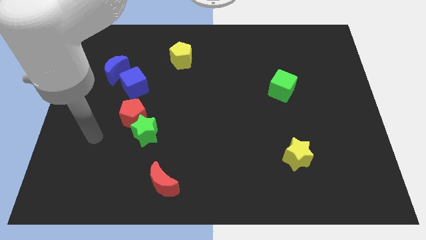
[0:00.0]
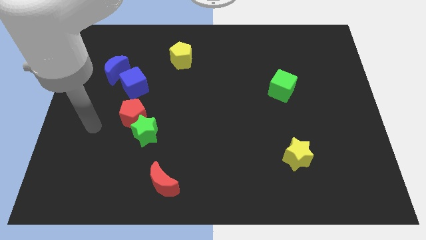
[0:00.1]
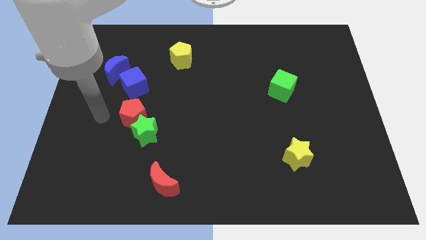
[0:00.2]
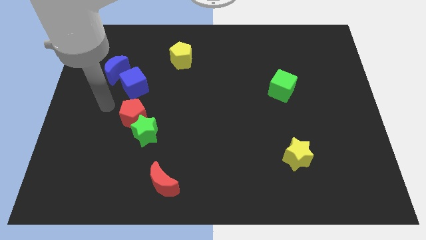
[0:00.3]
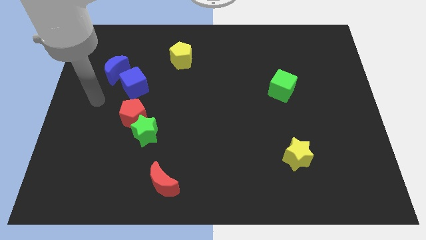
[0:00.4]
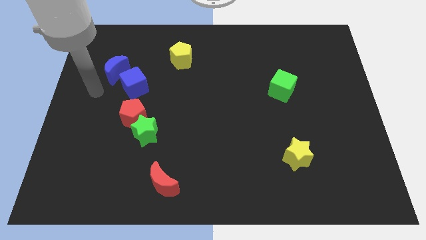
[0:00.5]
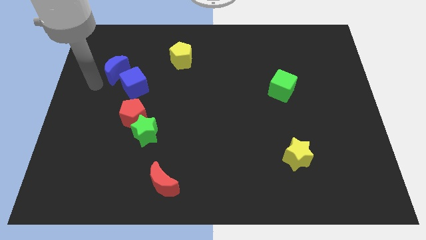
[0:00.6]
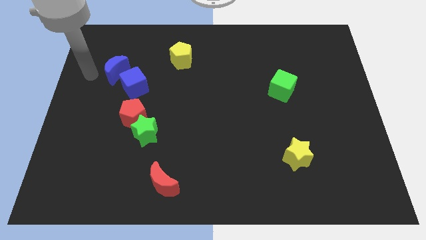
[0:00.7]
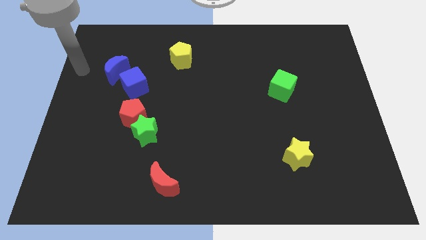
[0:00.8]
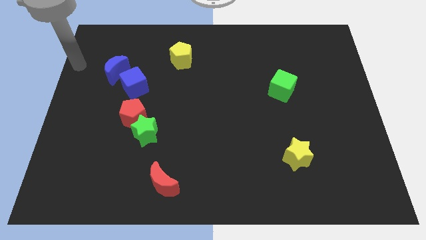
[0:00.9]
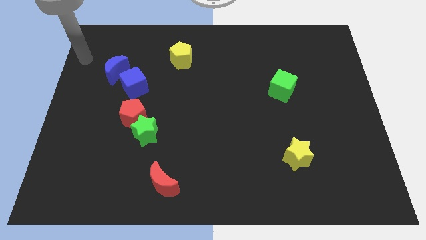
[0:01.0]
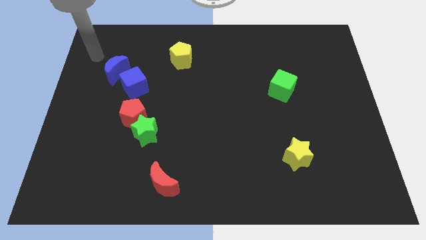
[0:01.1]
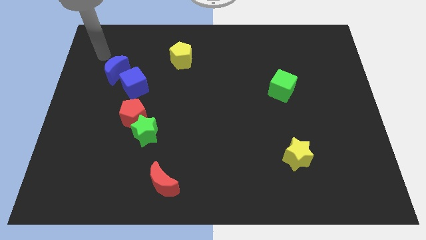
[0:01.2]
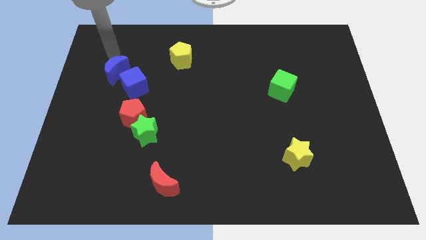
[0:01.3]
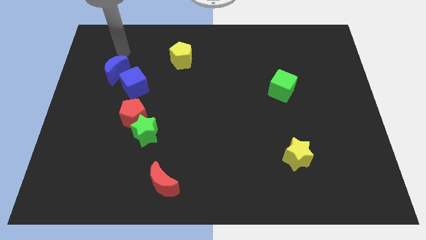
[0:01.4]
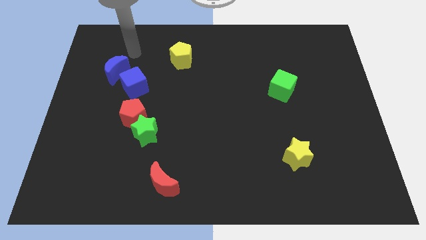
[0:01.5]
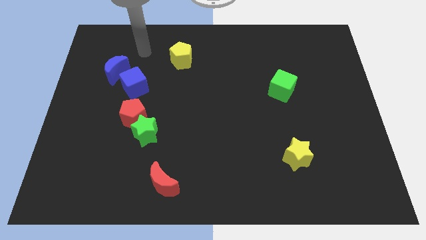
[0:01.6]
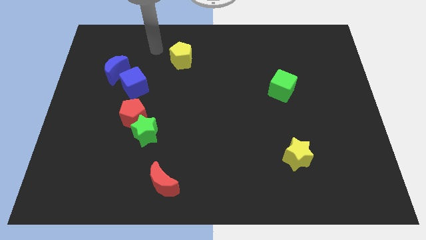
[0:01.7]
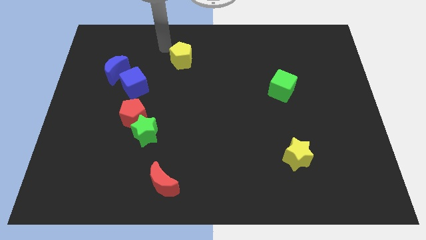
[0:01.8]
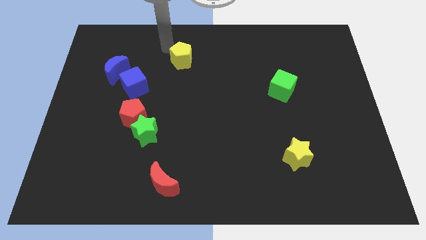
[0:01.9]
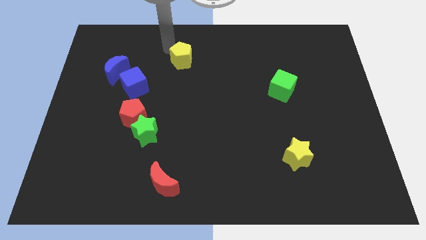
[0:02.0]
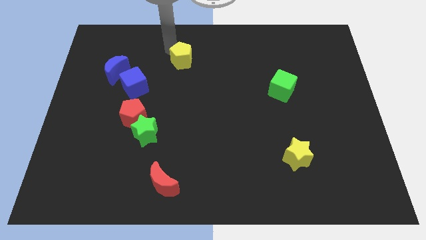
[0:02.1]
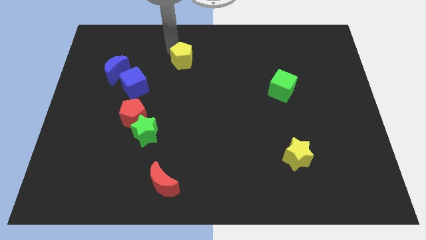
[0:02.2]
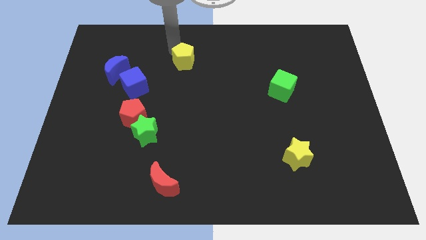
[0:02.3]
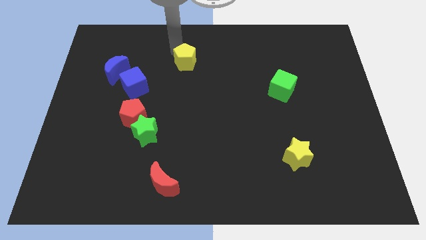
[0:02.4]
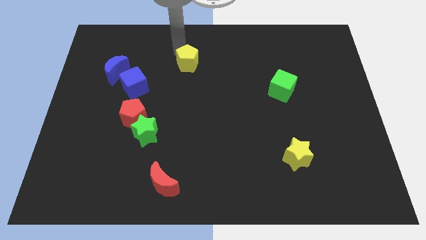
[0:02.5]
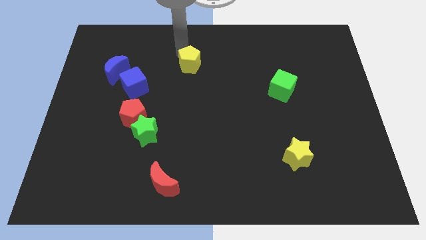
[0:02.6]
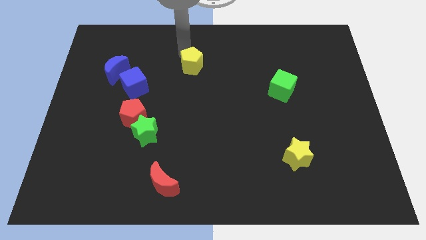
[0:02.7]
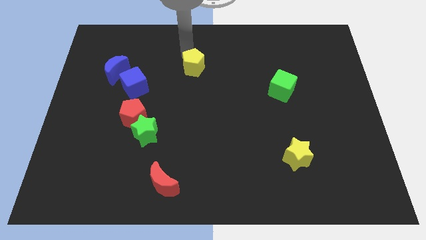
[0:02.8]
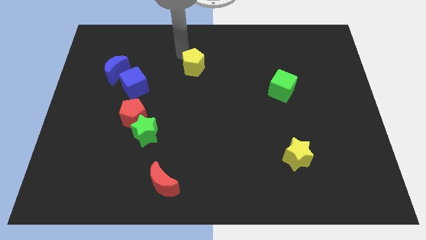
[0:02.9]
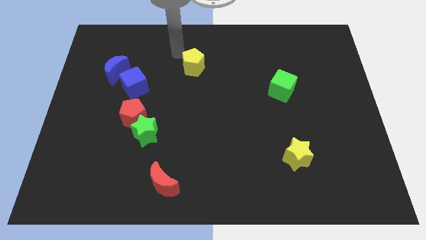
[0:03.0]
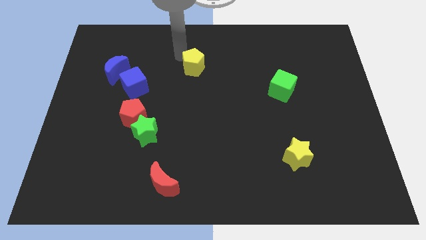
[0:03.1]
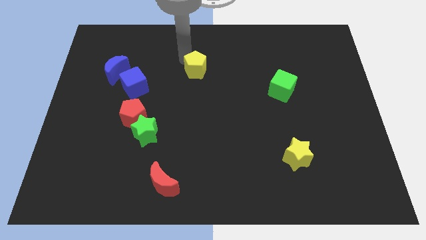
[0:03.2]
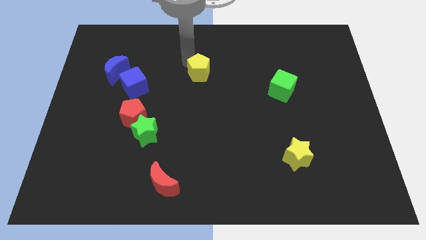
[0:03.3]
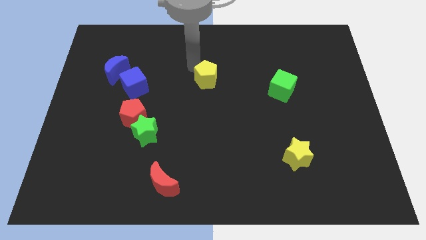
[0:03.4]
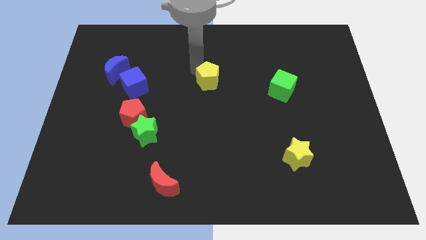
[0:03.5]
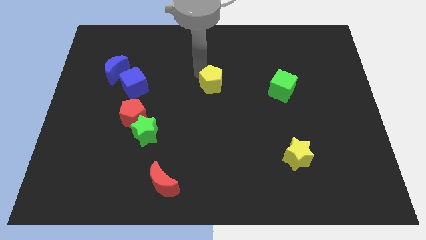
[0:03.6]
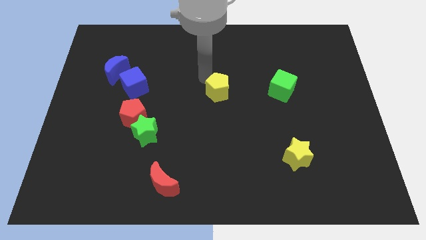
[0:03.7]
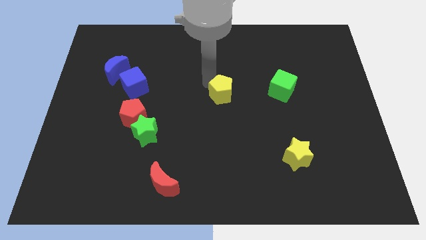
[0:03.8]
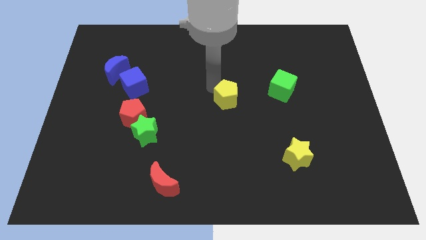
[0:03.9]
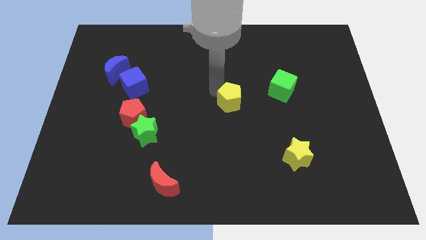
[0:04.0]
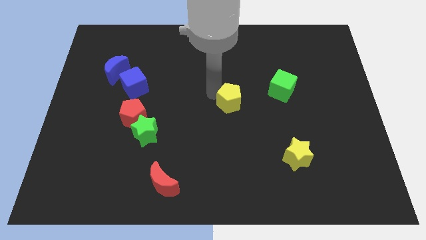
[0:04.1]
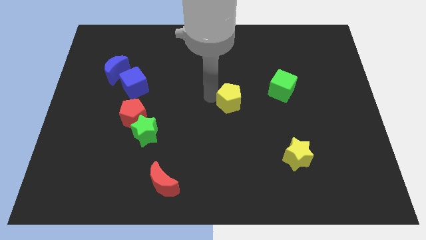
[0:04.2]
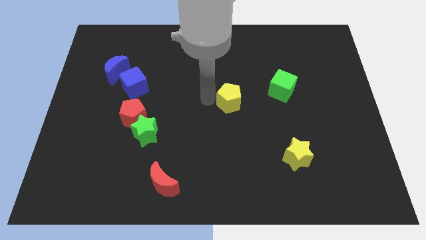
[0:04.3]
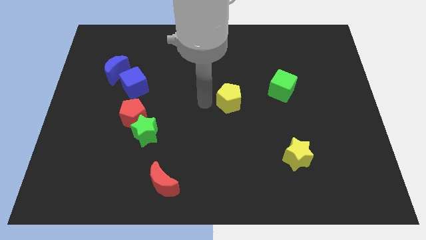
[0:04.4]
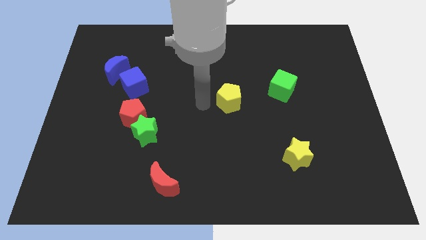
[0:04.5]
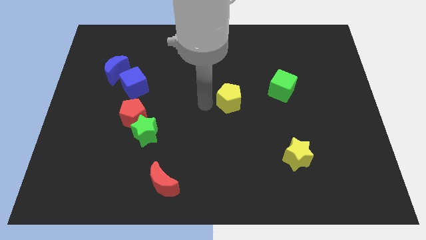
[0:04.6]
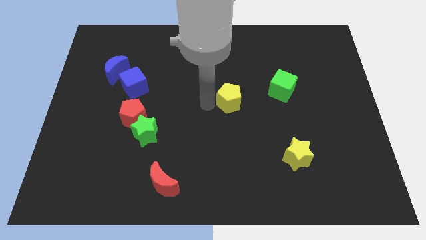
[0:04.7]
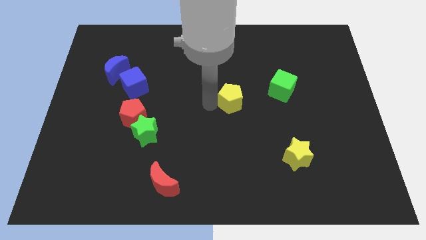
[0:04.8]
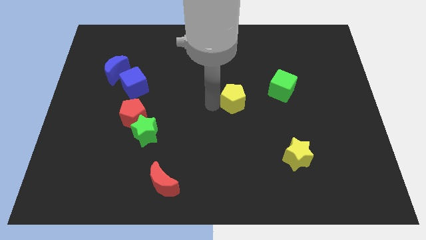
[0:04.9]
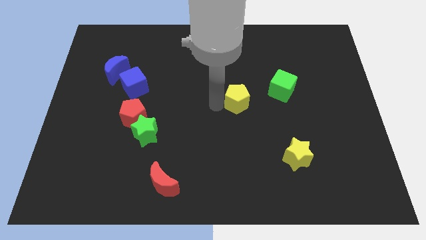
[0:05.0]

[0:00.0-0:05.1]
slide the yellow pentagon downwards and right

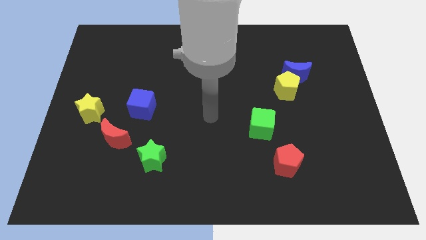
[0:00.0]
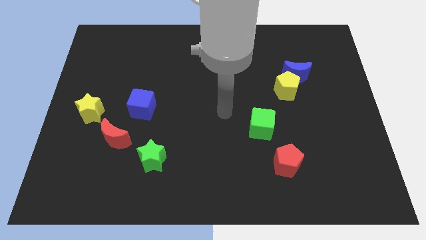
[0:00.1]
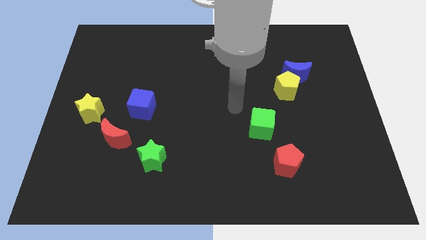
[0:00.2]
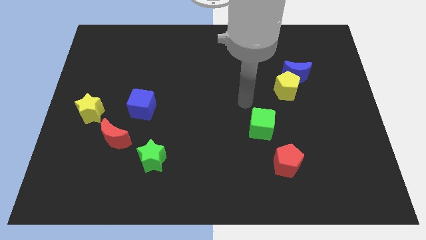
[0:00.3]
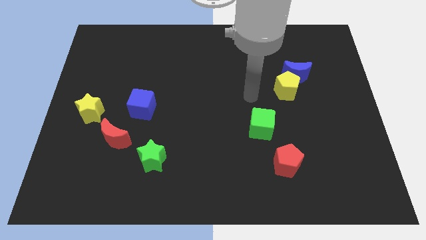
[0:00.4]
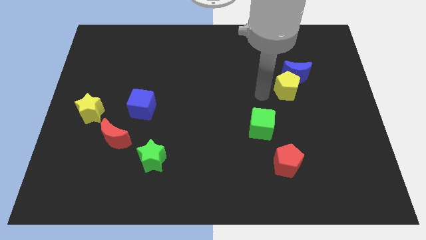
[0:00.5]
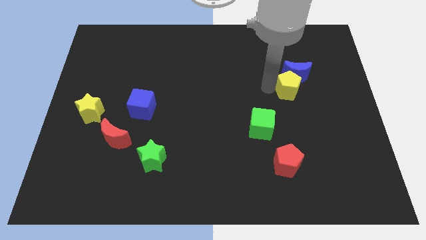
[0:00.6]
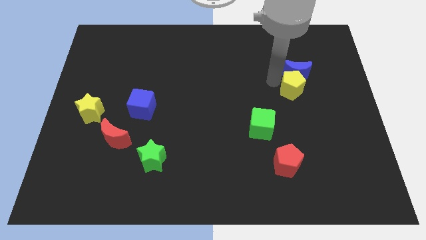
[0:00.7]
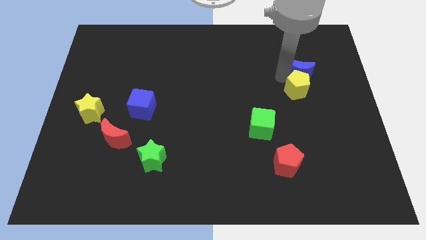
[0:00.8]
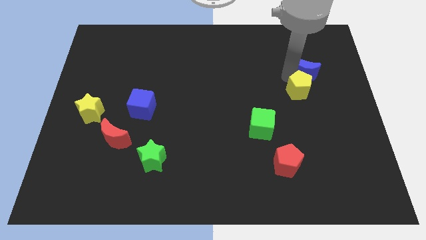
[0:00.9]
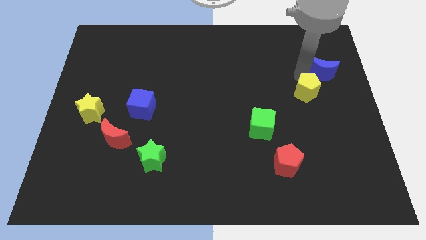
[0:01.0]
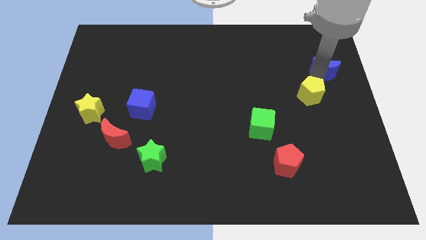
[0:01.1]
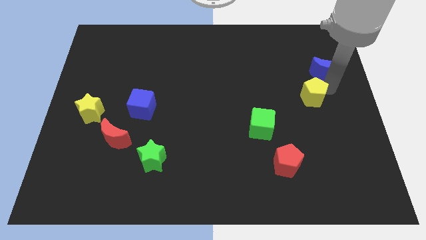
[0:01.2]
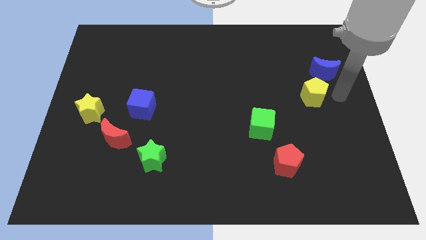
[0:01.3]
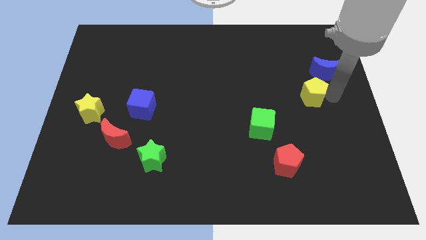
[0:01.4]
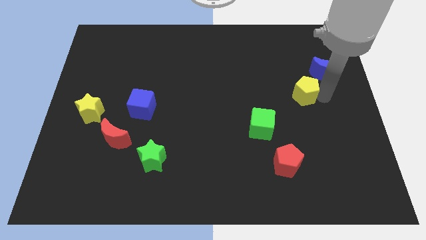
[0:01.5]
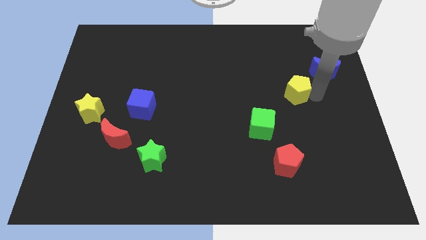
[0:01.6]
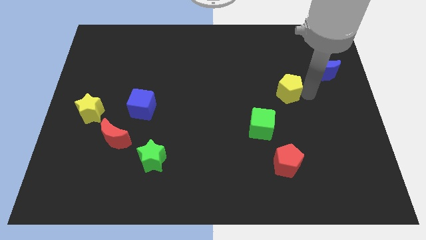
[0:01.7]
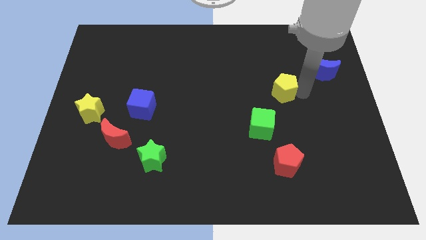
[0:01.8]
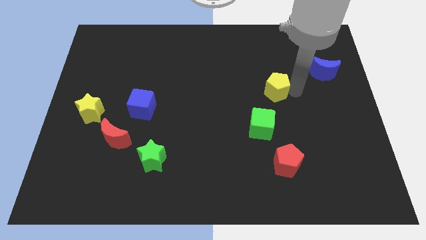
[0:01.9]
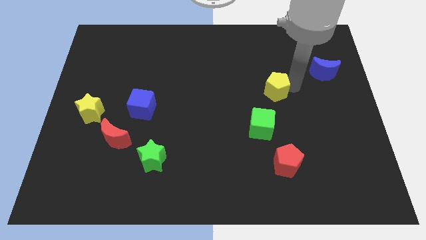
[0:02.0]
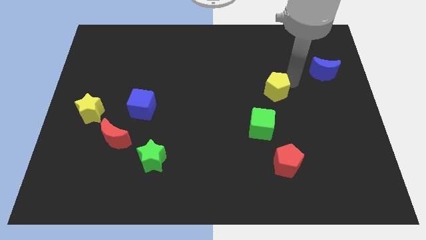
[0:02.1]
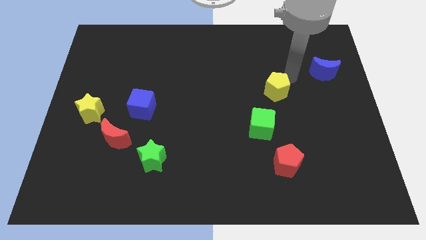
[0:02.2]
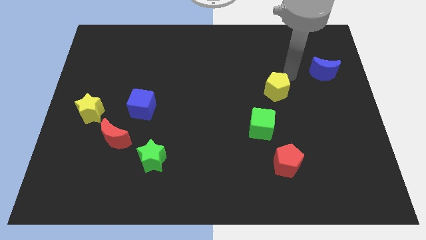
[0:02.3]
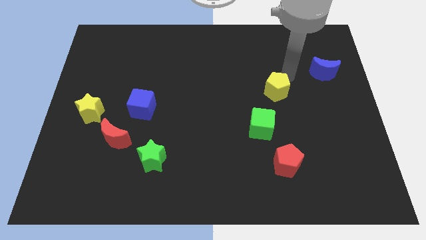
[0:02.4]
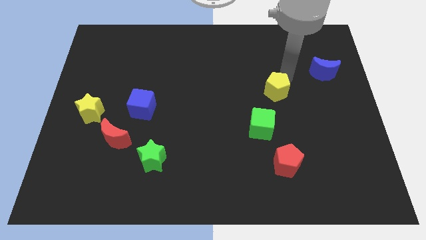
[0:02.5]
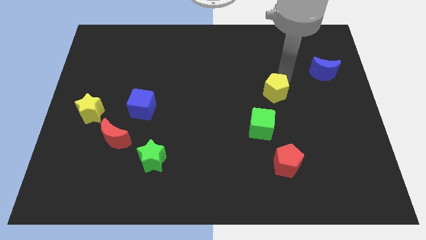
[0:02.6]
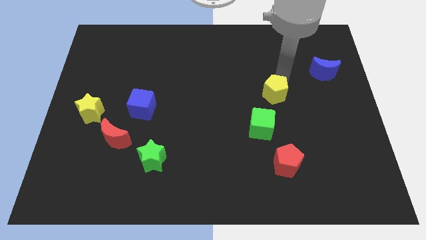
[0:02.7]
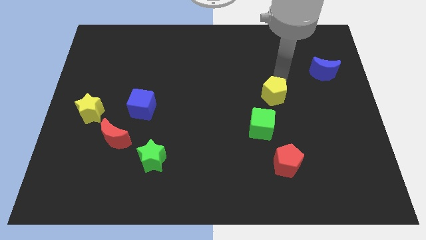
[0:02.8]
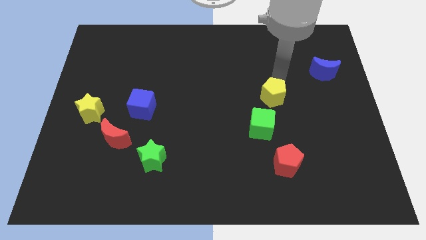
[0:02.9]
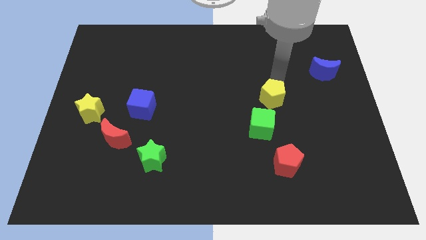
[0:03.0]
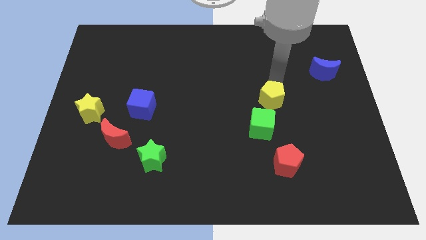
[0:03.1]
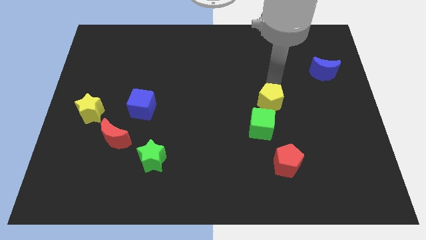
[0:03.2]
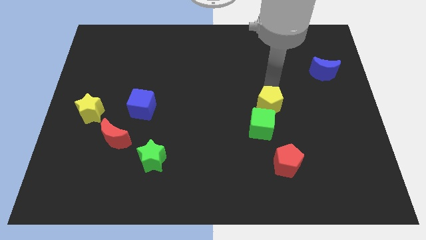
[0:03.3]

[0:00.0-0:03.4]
slightly push the yellow pentagon diagonally down and left
